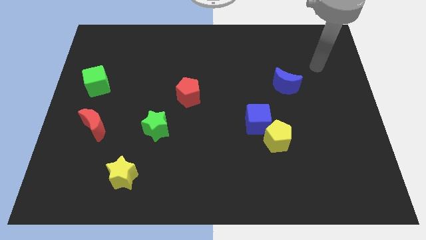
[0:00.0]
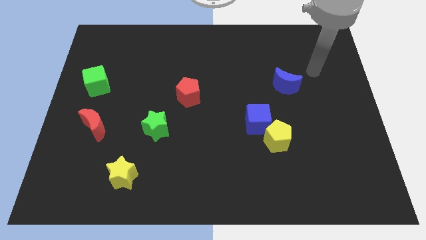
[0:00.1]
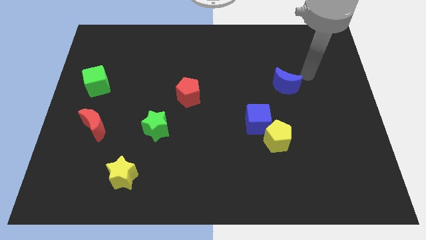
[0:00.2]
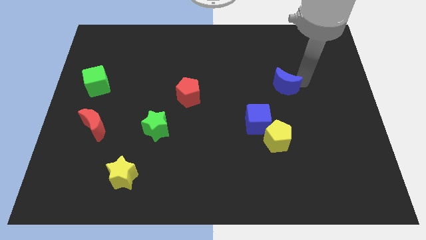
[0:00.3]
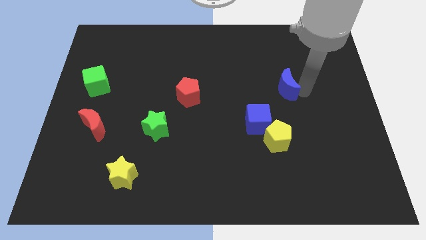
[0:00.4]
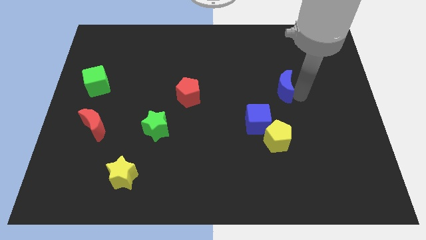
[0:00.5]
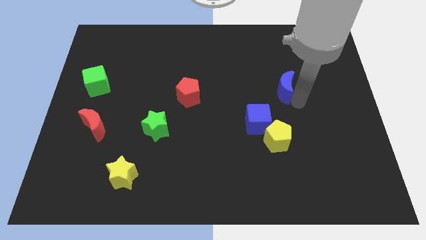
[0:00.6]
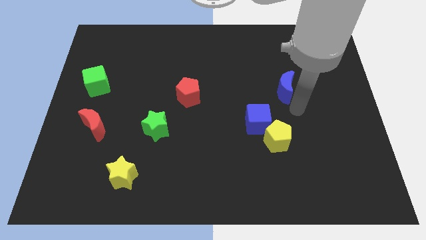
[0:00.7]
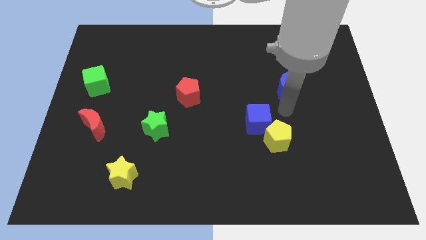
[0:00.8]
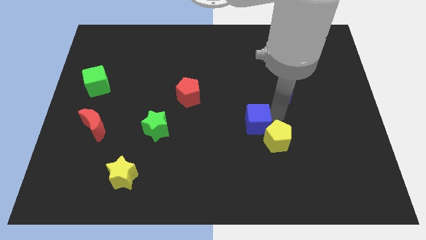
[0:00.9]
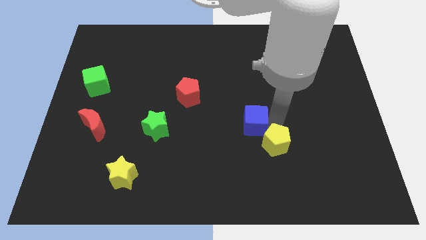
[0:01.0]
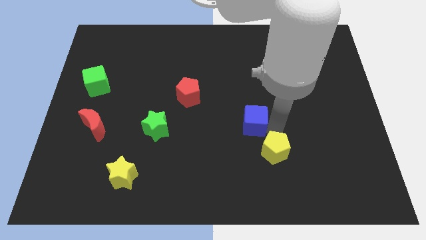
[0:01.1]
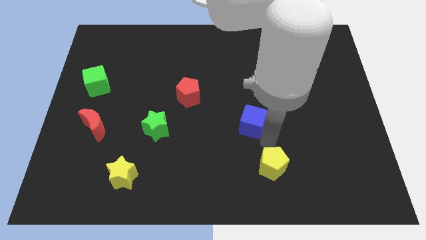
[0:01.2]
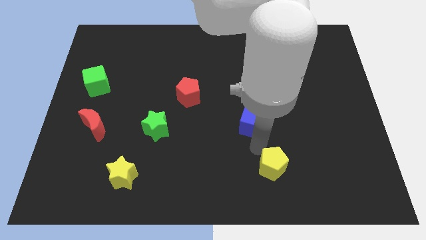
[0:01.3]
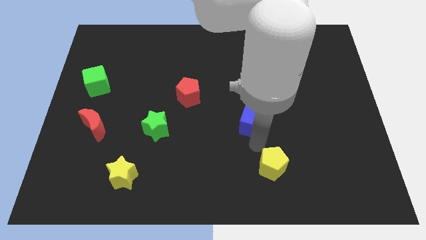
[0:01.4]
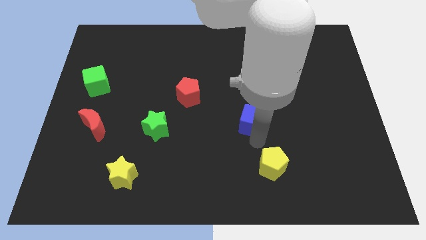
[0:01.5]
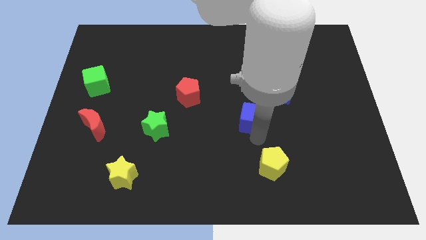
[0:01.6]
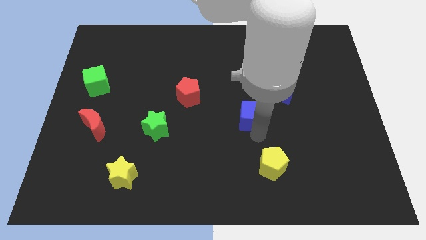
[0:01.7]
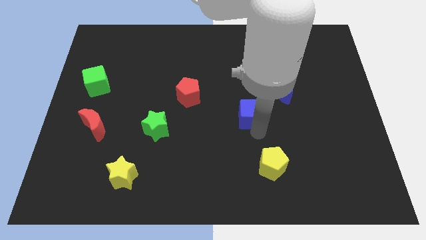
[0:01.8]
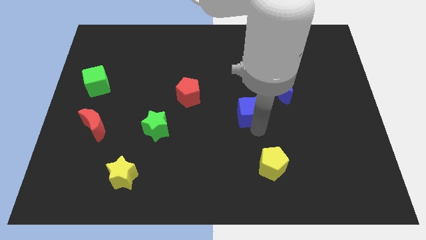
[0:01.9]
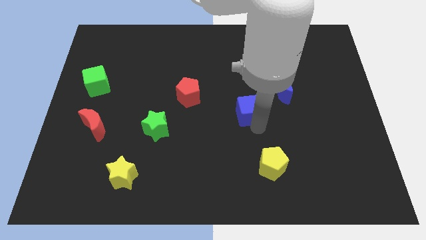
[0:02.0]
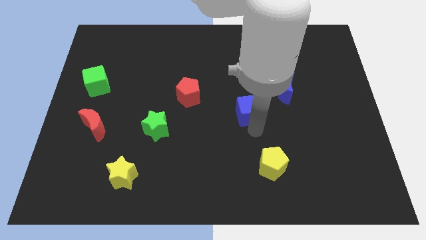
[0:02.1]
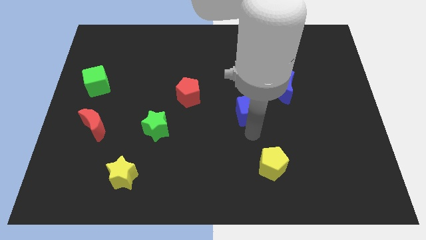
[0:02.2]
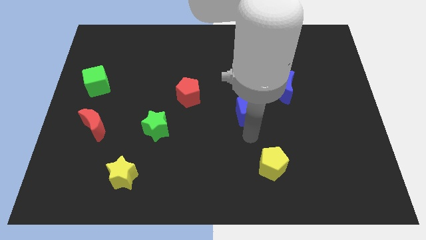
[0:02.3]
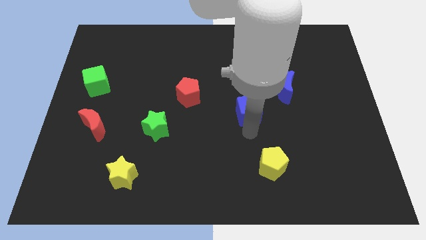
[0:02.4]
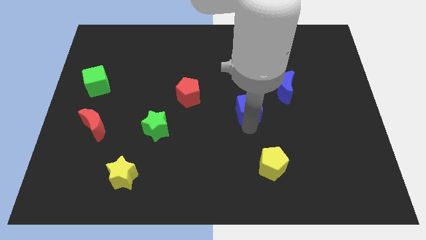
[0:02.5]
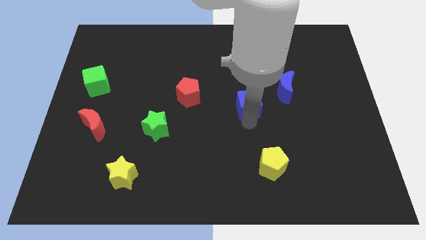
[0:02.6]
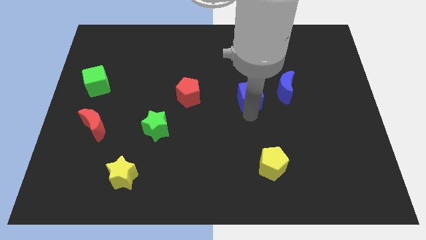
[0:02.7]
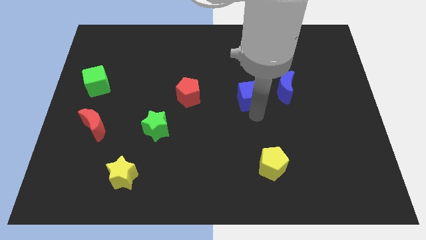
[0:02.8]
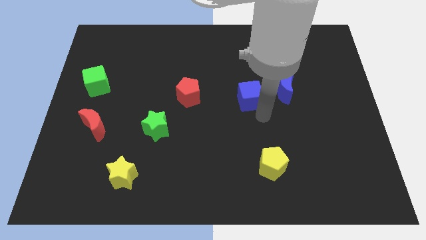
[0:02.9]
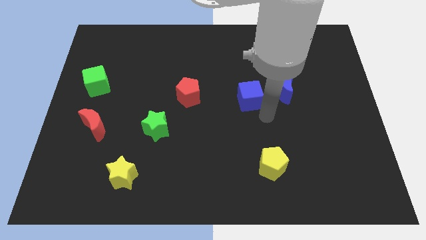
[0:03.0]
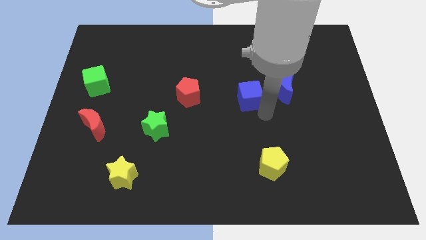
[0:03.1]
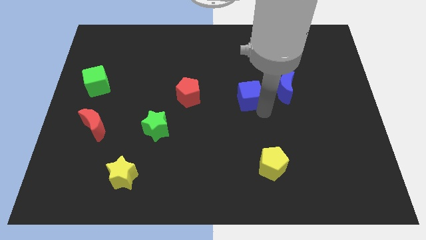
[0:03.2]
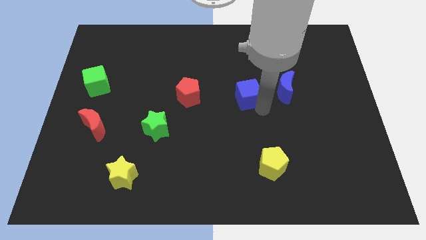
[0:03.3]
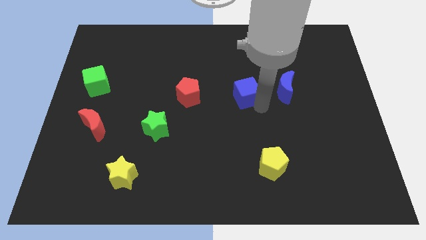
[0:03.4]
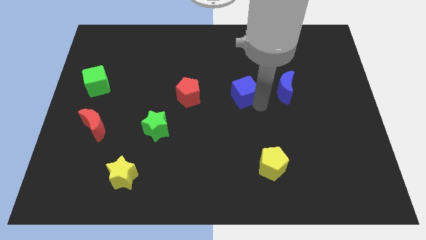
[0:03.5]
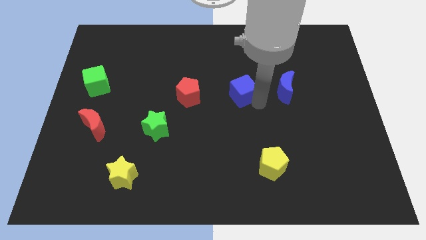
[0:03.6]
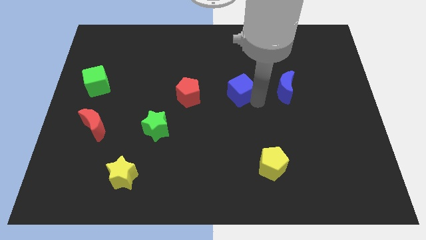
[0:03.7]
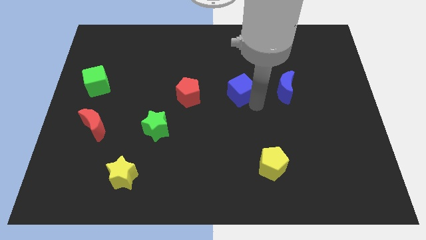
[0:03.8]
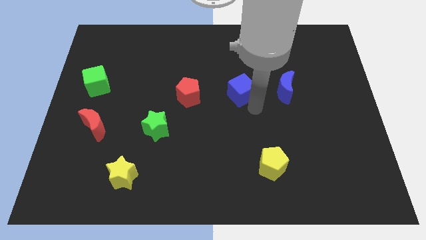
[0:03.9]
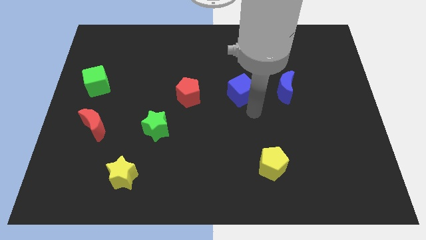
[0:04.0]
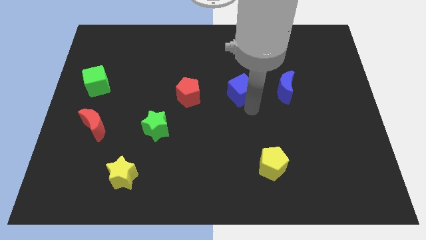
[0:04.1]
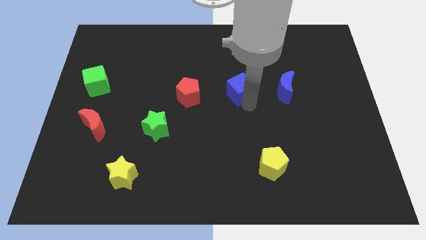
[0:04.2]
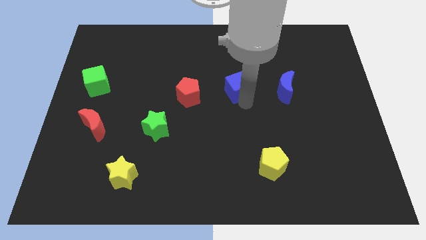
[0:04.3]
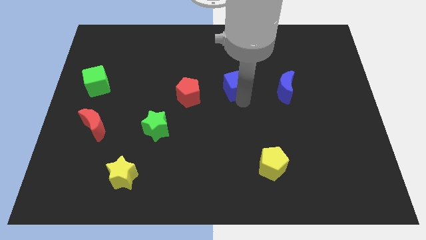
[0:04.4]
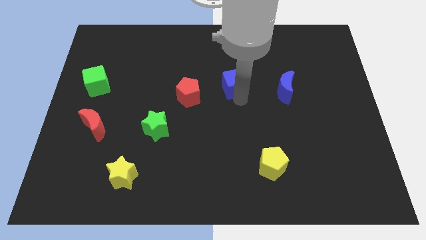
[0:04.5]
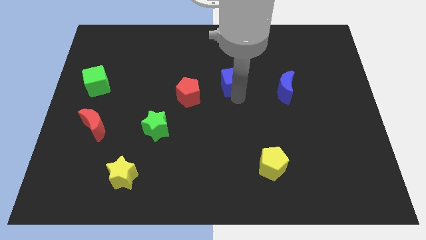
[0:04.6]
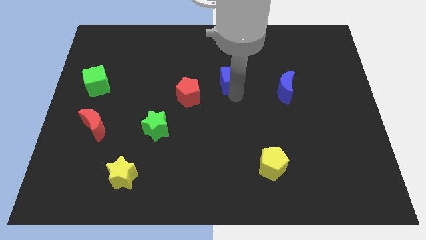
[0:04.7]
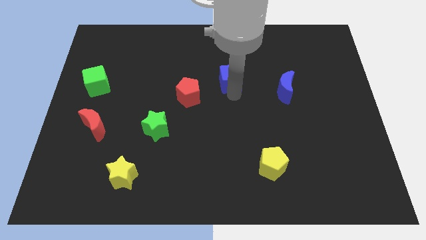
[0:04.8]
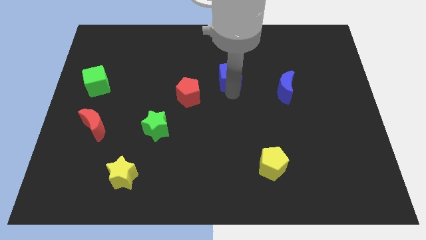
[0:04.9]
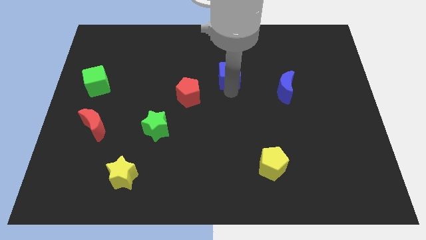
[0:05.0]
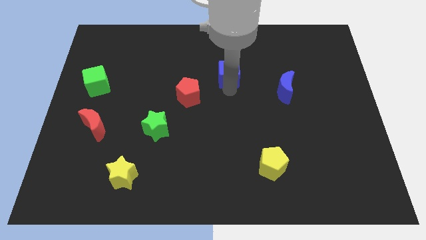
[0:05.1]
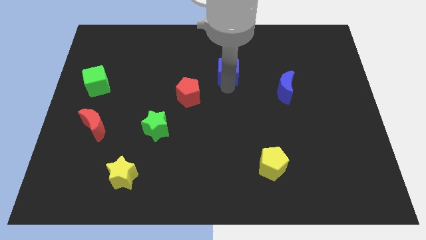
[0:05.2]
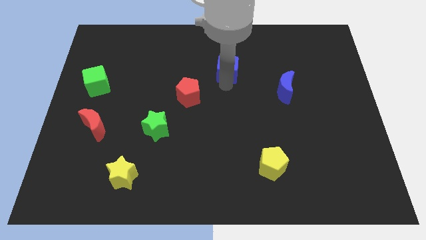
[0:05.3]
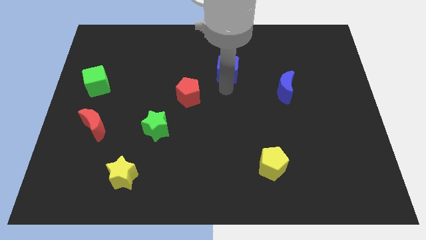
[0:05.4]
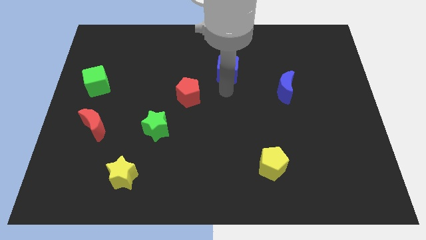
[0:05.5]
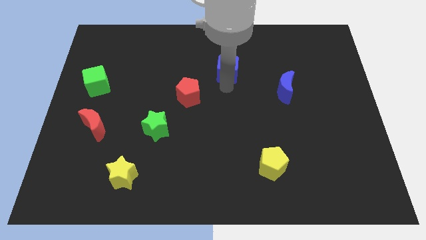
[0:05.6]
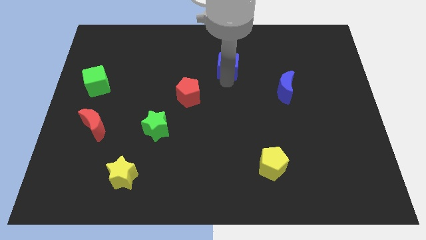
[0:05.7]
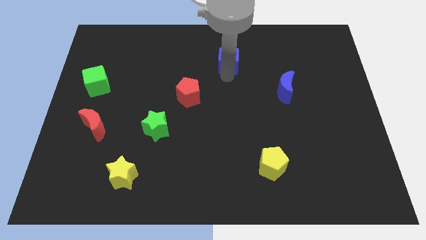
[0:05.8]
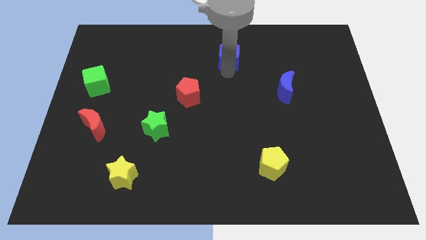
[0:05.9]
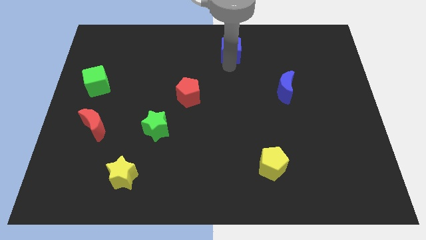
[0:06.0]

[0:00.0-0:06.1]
push the blue cube to the top
